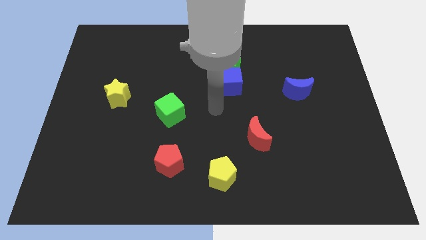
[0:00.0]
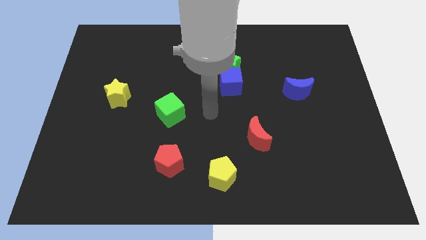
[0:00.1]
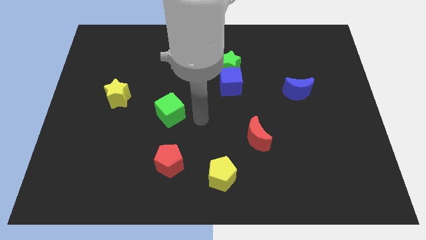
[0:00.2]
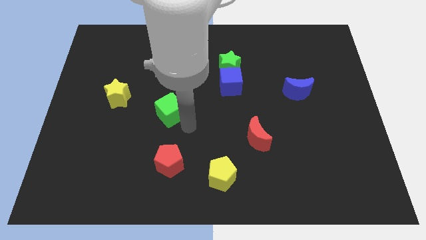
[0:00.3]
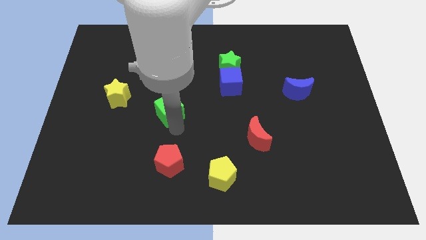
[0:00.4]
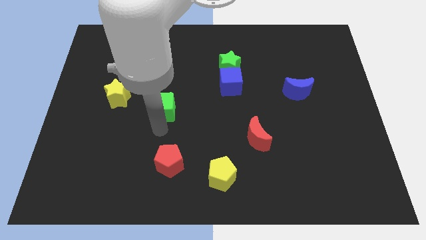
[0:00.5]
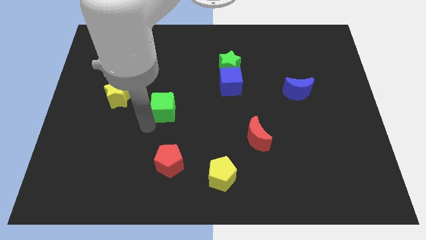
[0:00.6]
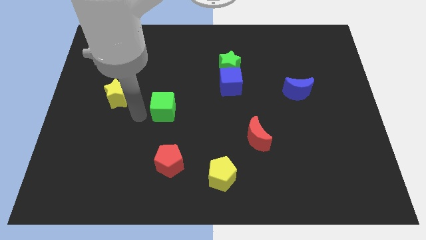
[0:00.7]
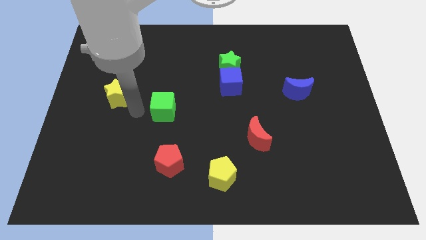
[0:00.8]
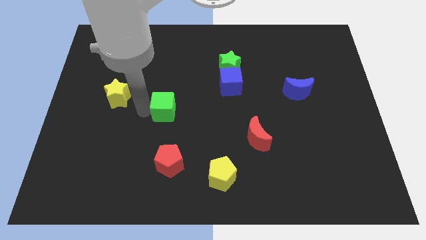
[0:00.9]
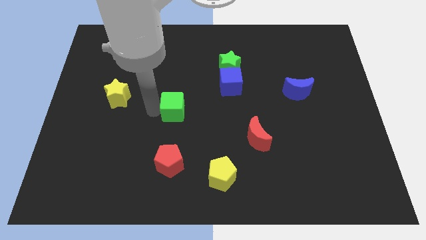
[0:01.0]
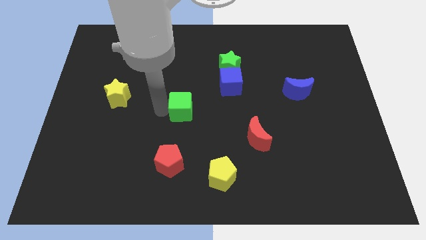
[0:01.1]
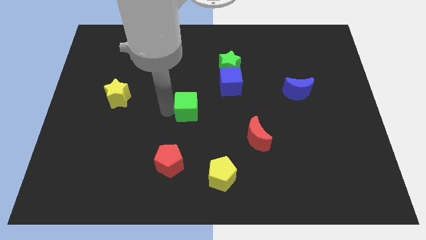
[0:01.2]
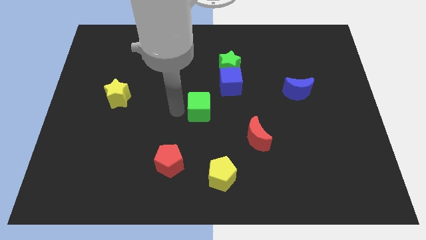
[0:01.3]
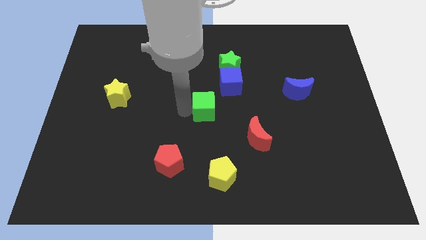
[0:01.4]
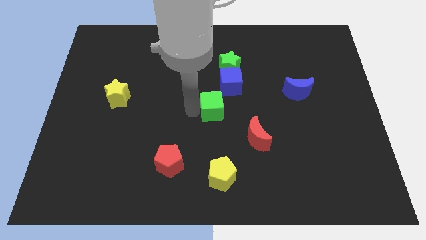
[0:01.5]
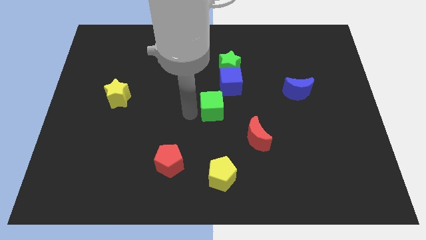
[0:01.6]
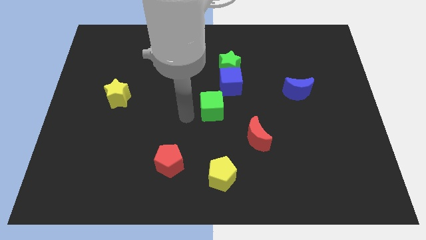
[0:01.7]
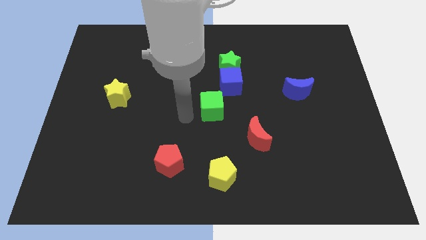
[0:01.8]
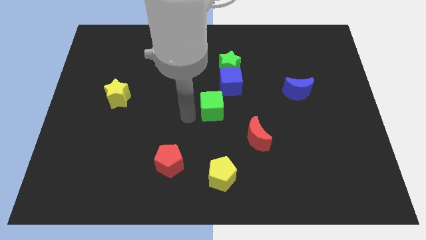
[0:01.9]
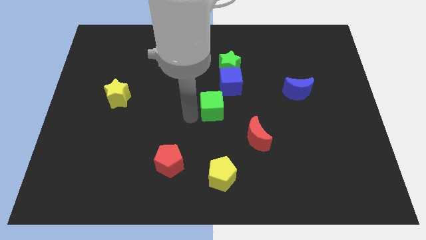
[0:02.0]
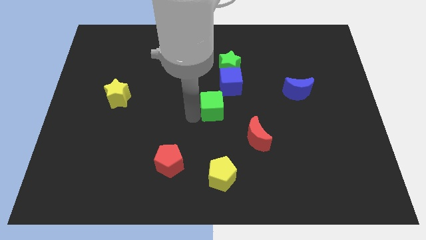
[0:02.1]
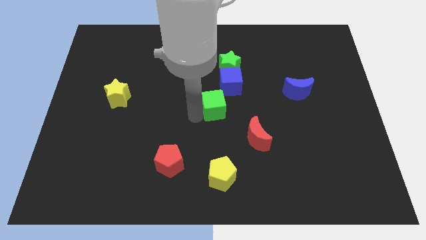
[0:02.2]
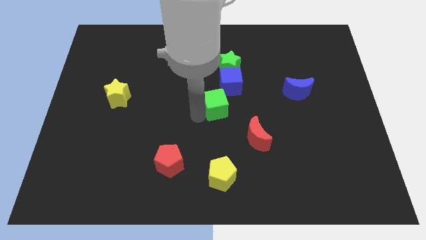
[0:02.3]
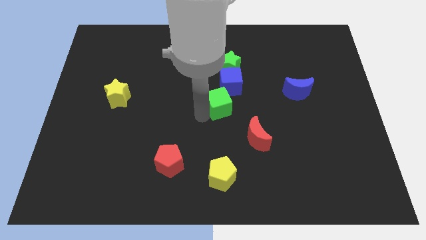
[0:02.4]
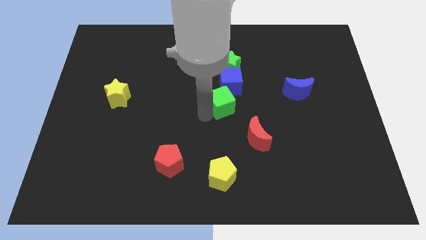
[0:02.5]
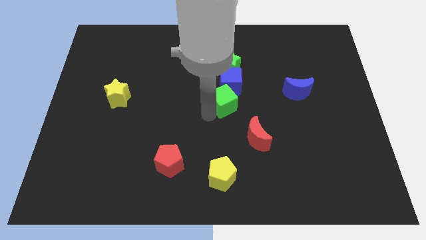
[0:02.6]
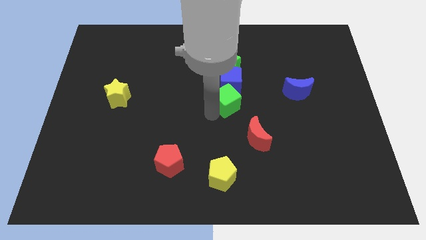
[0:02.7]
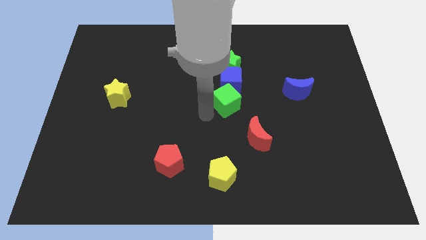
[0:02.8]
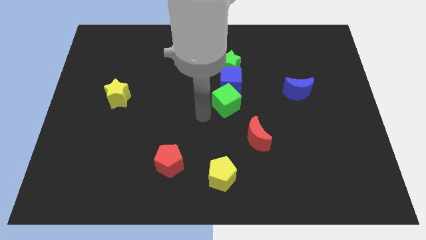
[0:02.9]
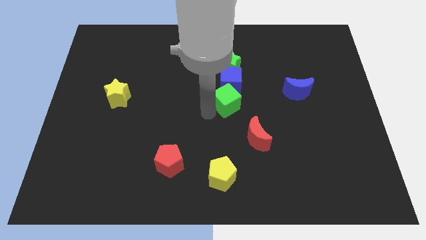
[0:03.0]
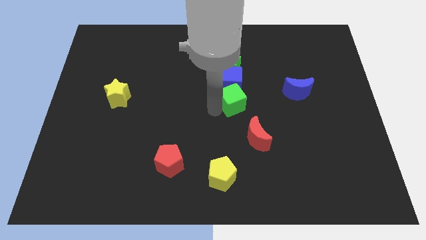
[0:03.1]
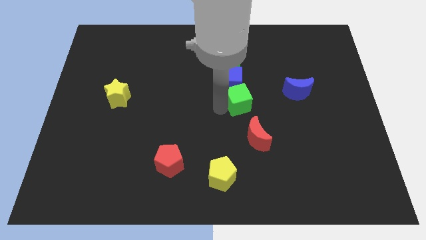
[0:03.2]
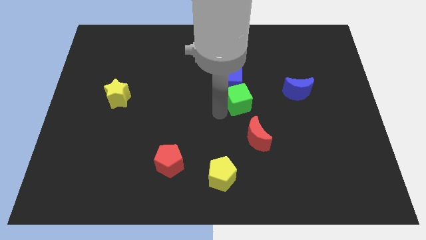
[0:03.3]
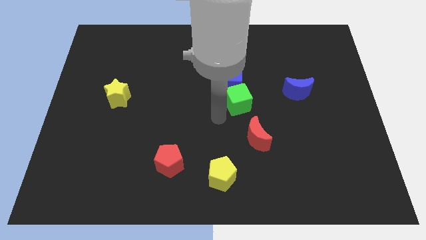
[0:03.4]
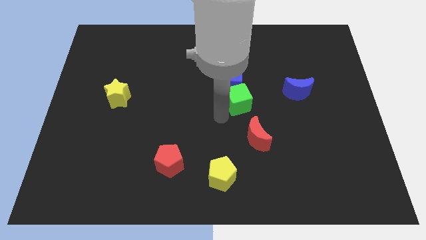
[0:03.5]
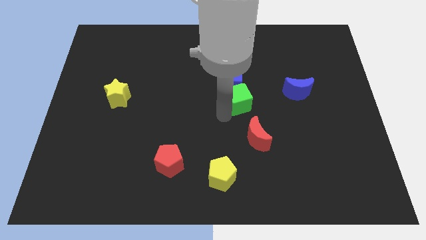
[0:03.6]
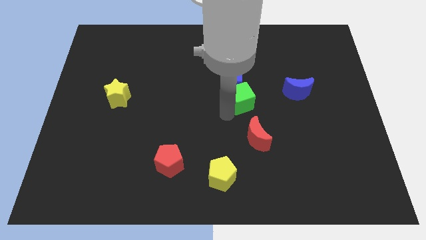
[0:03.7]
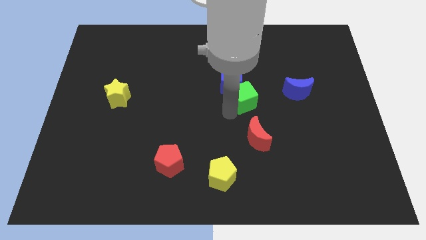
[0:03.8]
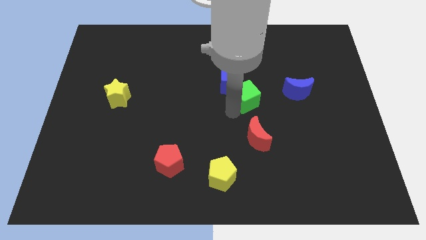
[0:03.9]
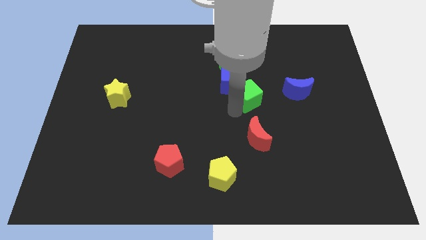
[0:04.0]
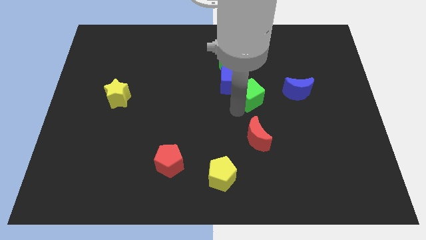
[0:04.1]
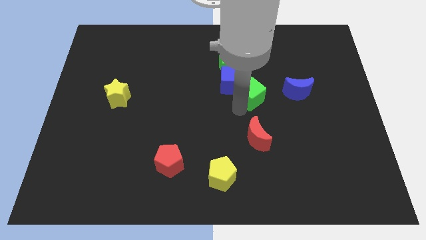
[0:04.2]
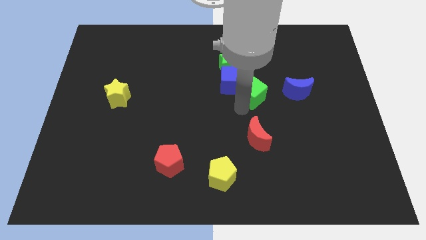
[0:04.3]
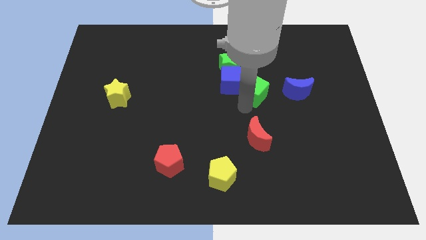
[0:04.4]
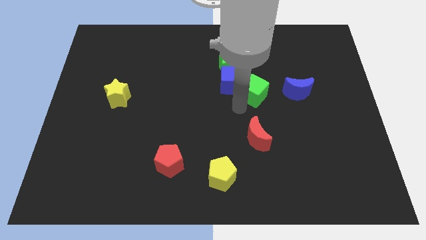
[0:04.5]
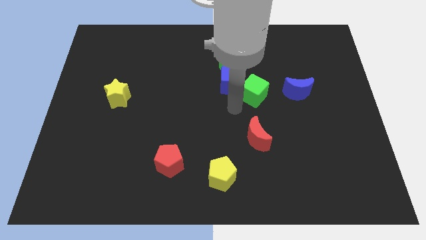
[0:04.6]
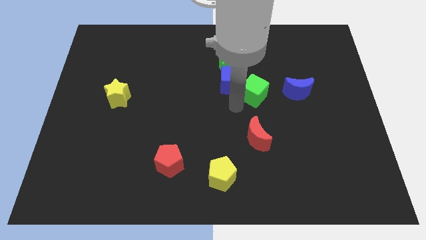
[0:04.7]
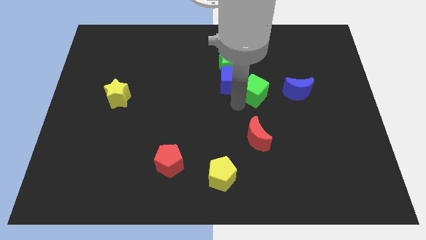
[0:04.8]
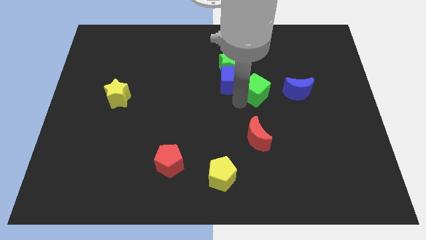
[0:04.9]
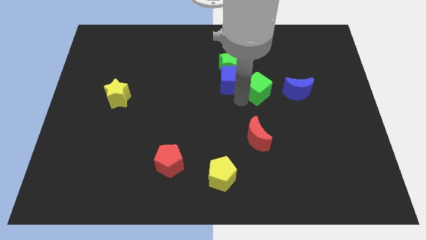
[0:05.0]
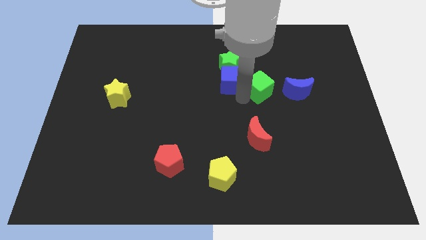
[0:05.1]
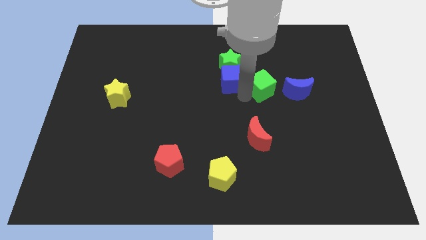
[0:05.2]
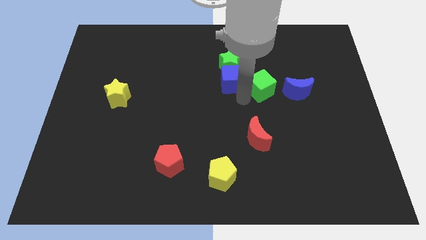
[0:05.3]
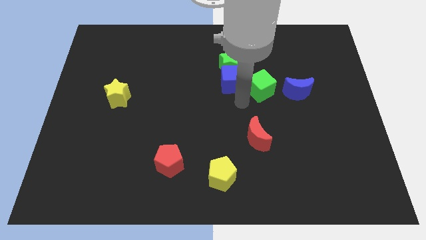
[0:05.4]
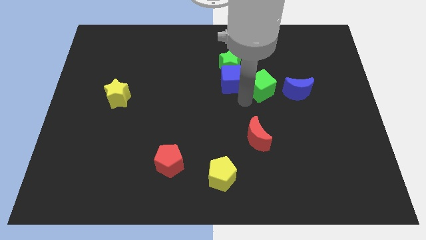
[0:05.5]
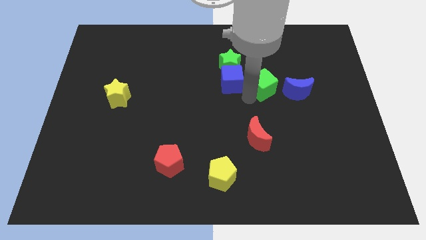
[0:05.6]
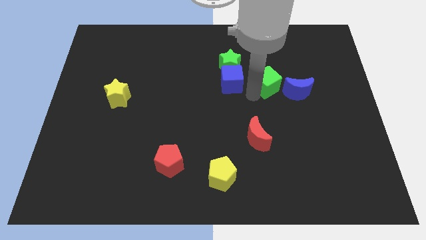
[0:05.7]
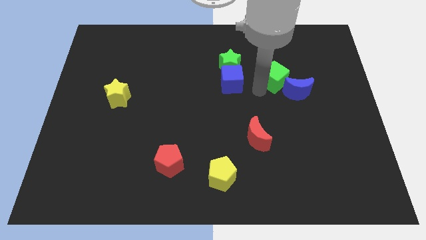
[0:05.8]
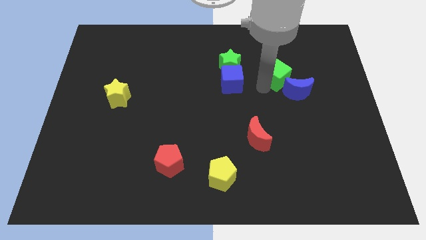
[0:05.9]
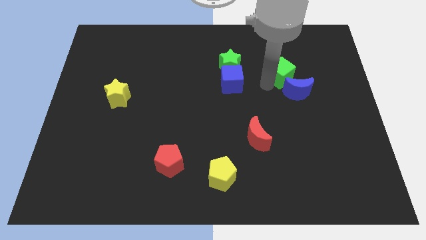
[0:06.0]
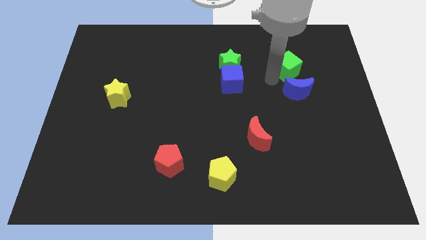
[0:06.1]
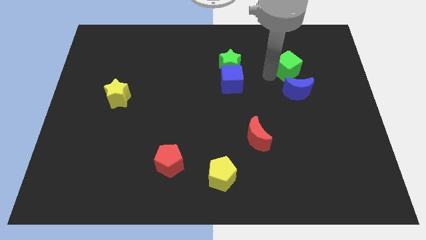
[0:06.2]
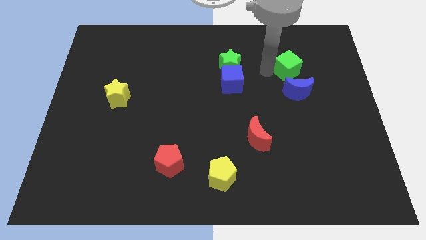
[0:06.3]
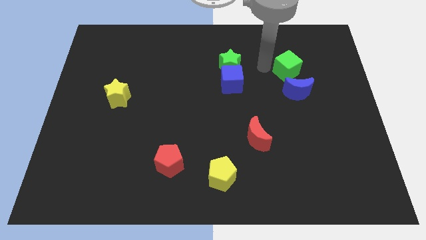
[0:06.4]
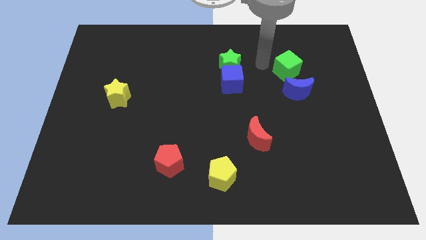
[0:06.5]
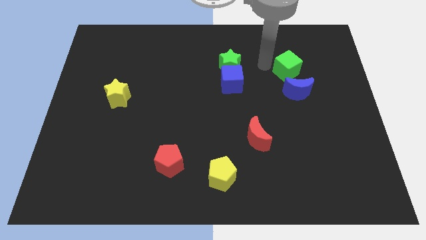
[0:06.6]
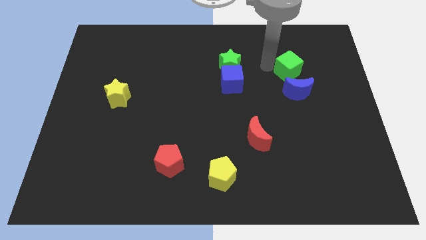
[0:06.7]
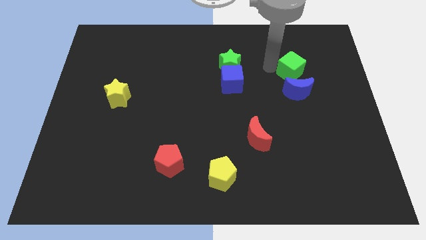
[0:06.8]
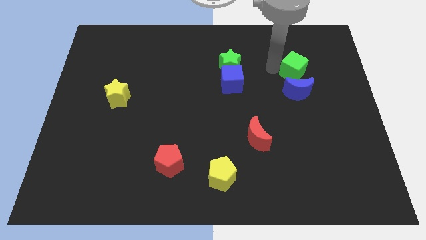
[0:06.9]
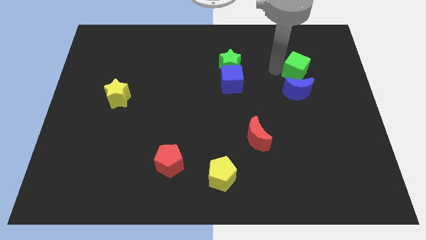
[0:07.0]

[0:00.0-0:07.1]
move the green cube to the top right of the blue moon

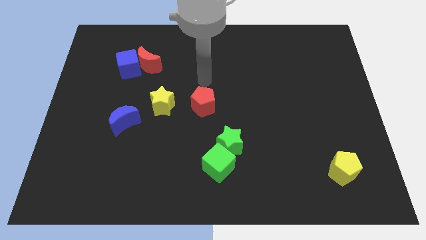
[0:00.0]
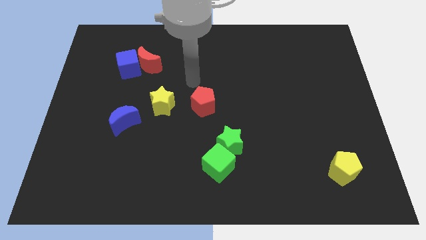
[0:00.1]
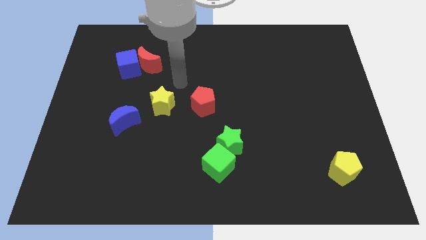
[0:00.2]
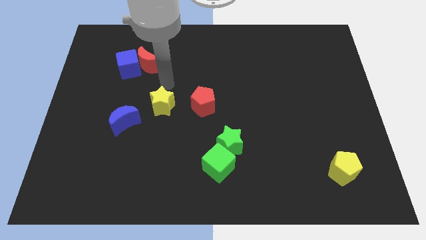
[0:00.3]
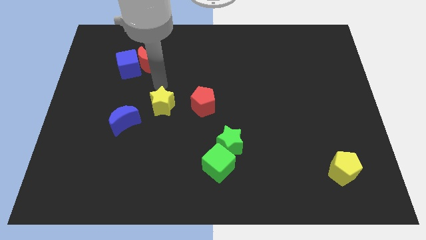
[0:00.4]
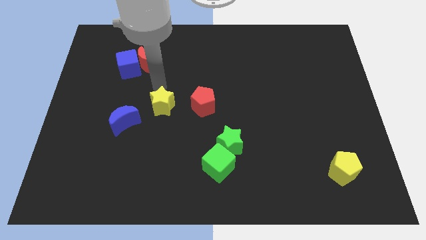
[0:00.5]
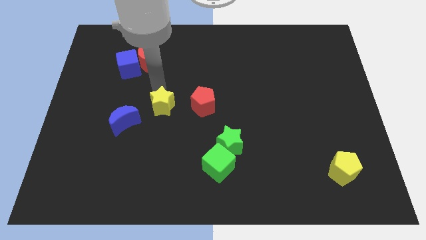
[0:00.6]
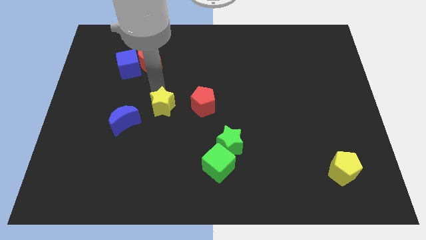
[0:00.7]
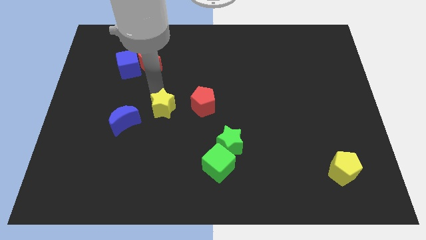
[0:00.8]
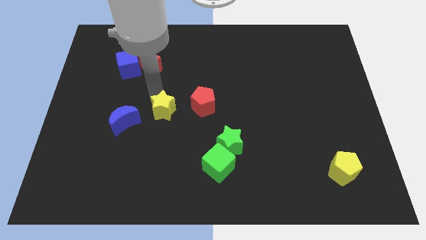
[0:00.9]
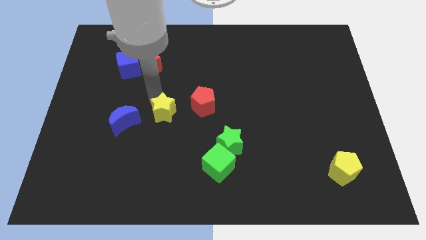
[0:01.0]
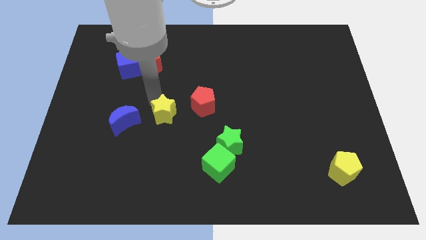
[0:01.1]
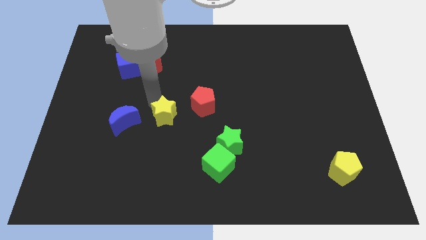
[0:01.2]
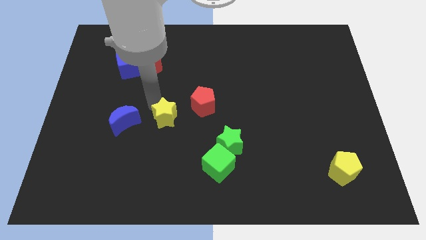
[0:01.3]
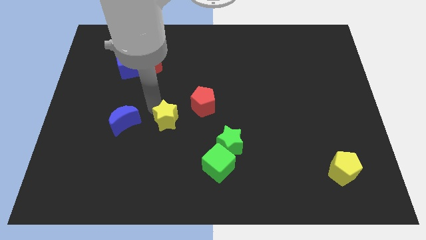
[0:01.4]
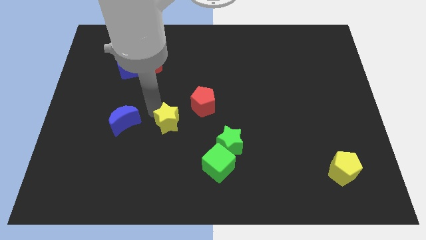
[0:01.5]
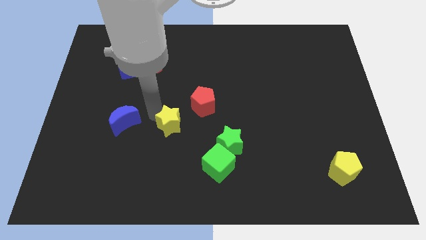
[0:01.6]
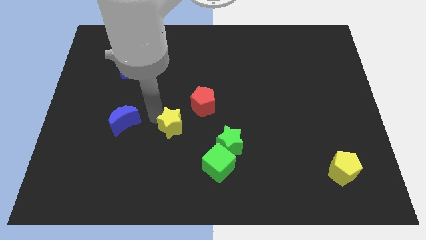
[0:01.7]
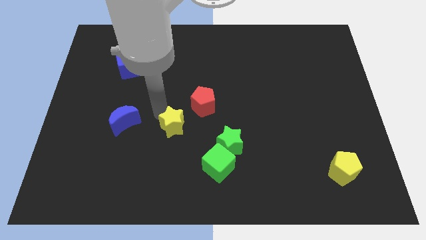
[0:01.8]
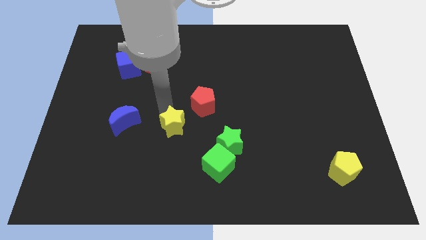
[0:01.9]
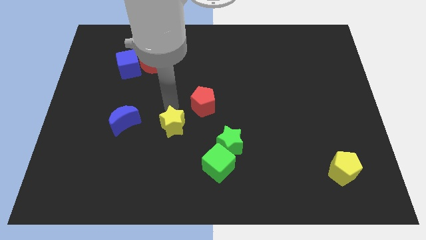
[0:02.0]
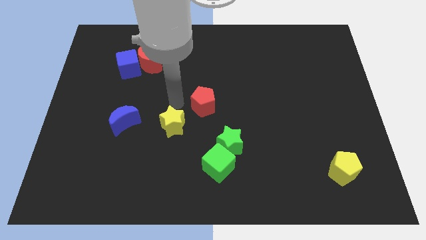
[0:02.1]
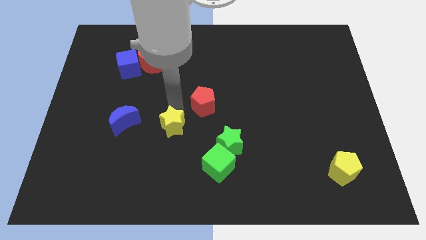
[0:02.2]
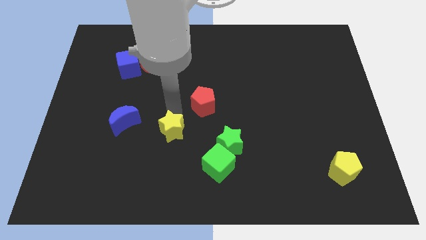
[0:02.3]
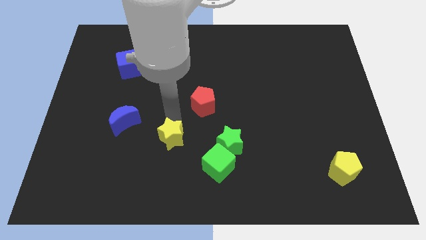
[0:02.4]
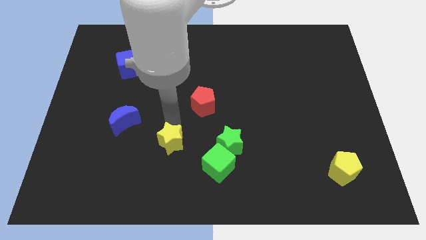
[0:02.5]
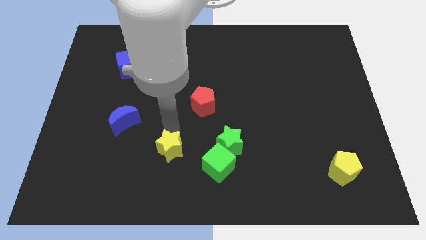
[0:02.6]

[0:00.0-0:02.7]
slide the yellow star to the left of the green cube
